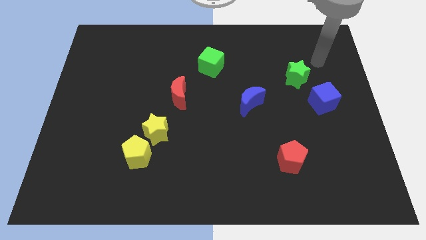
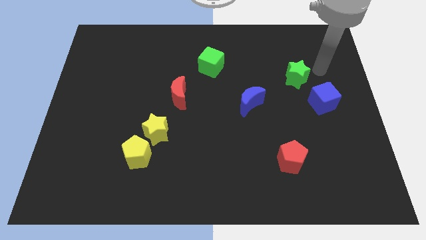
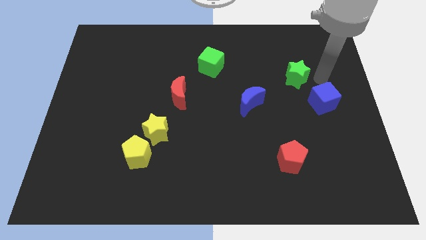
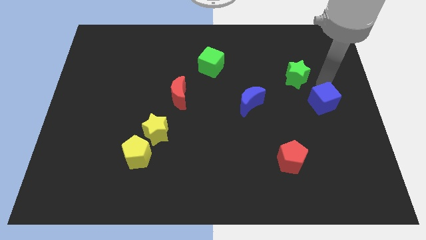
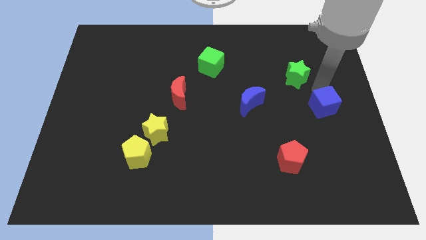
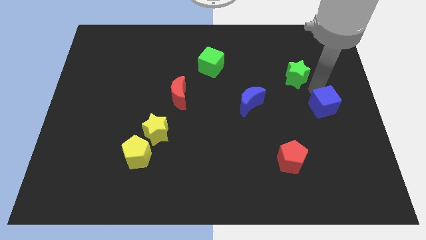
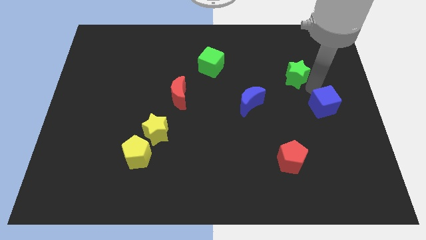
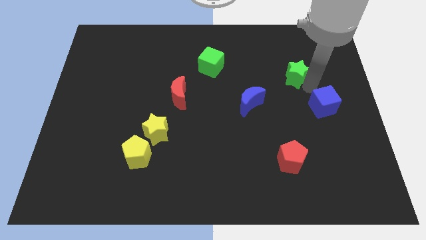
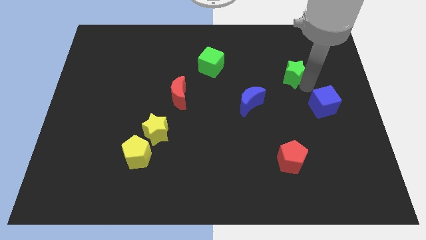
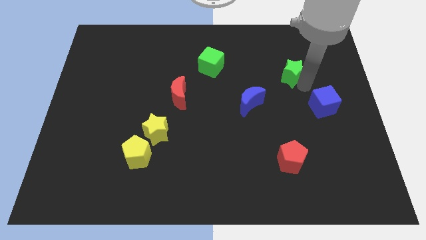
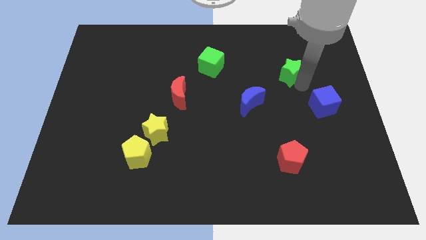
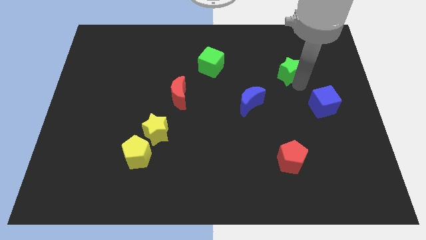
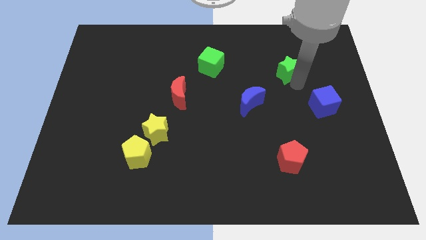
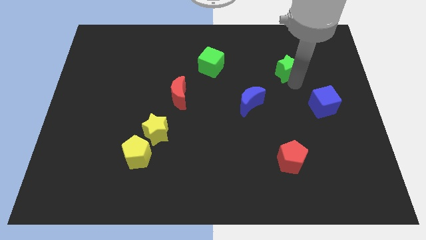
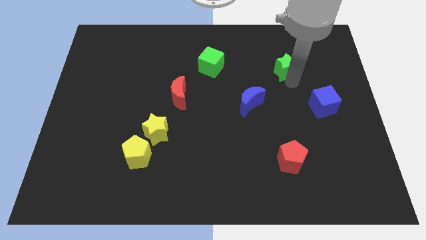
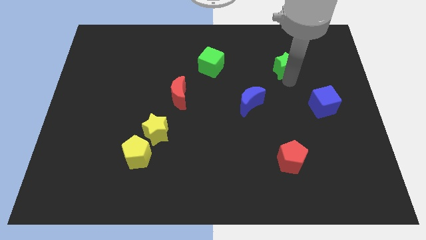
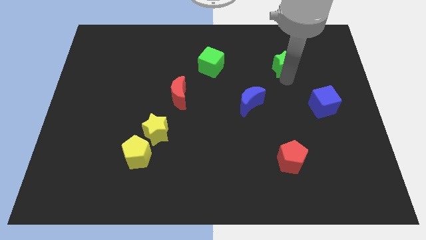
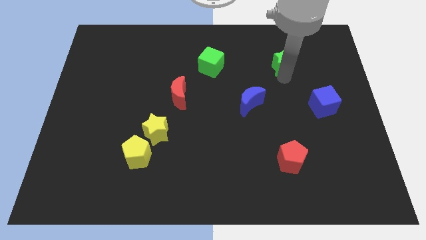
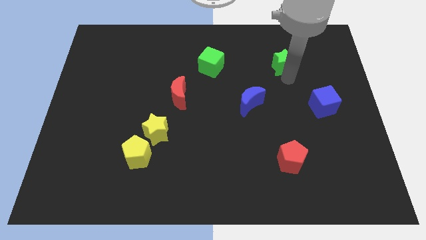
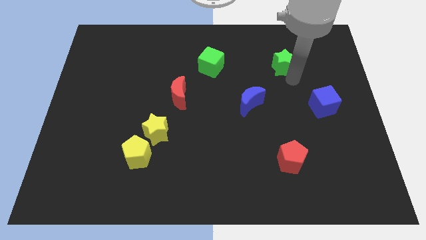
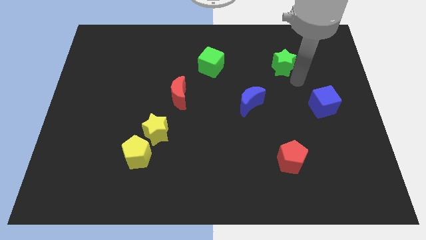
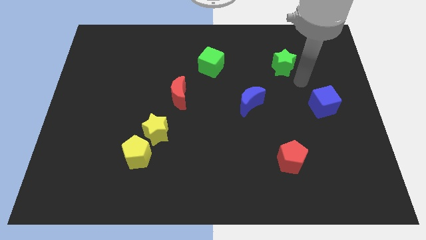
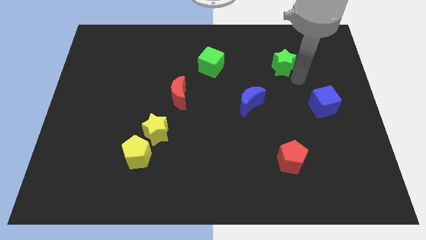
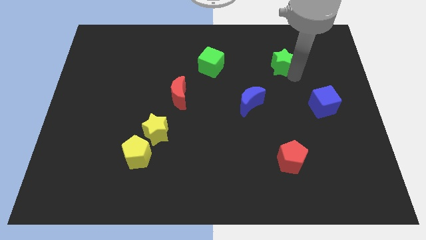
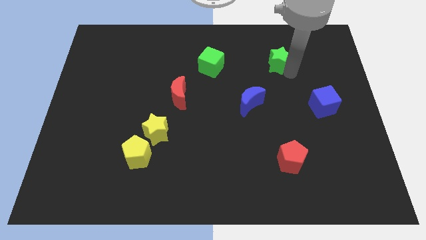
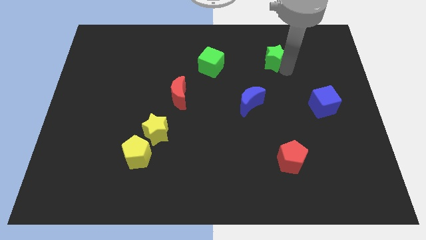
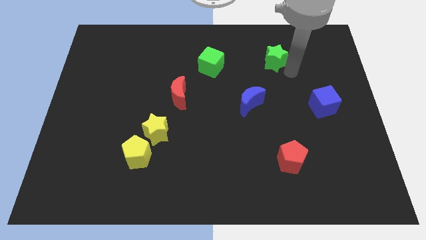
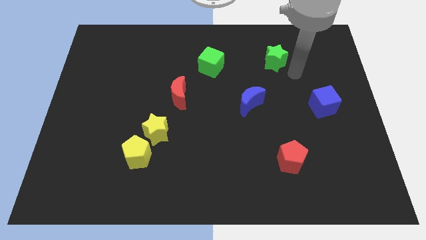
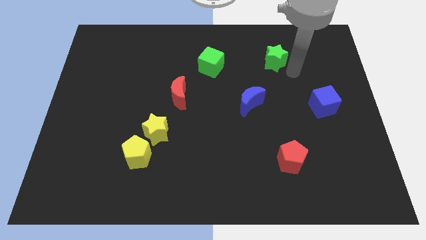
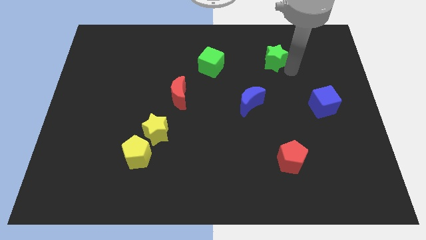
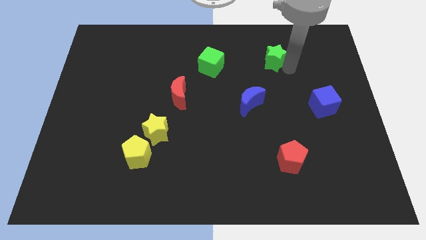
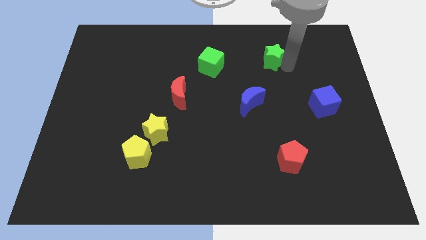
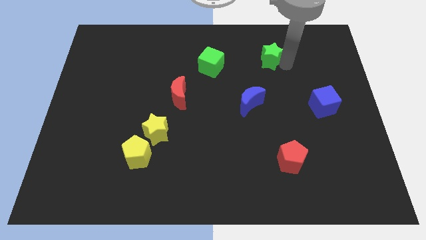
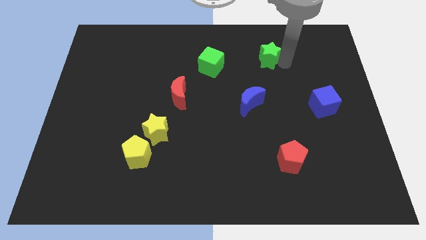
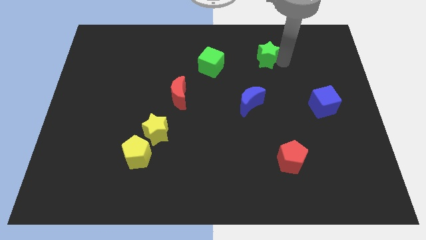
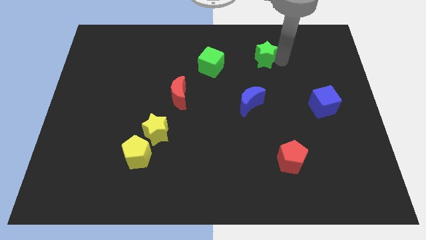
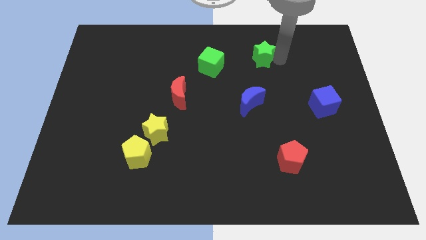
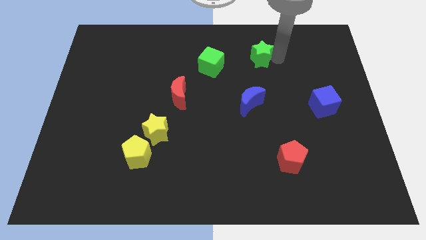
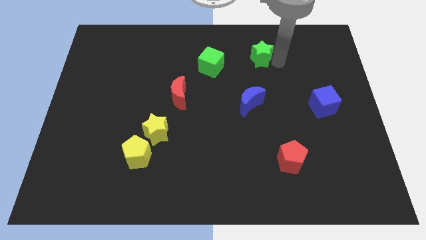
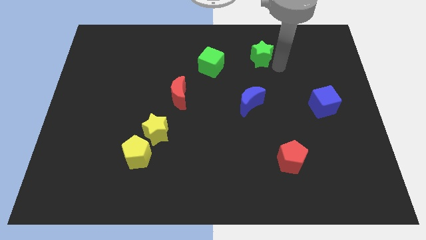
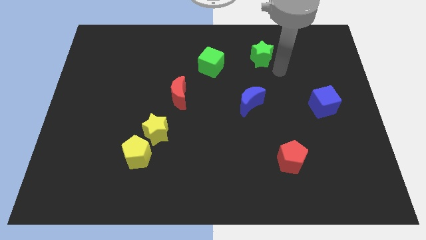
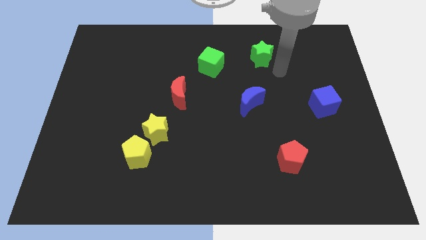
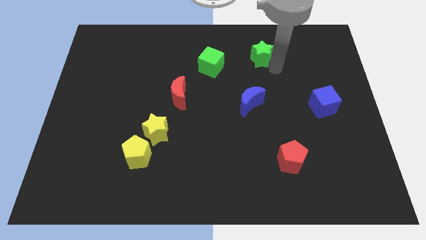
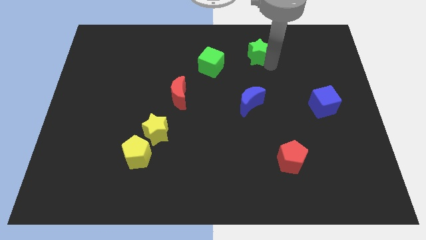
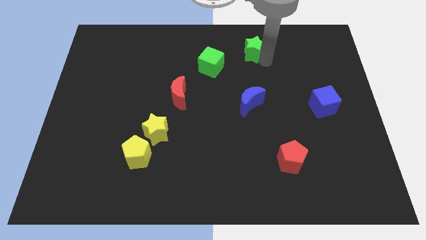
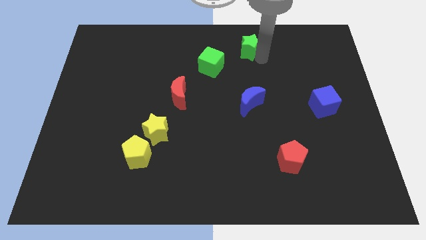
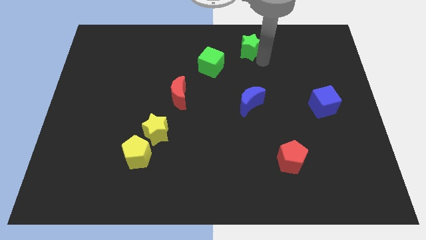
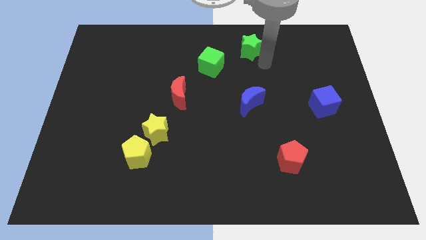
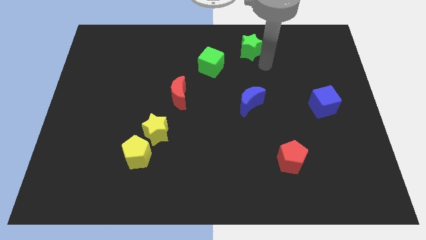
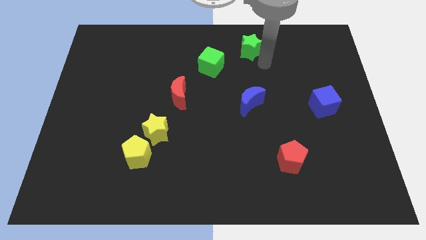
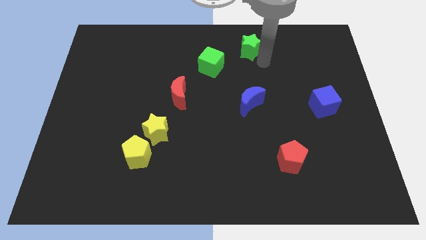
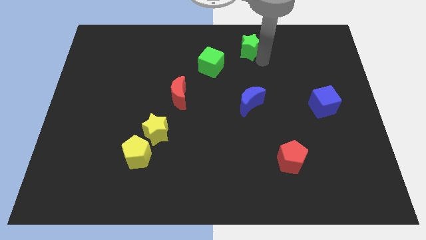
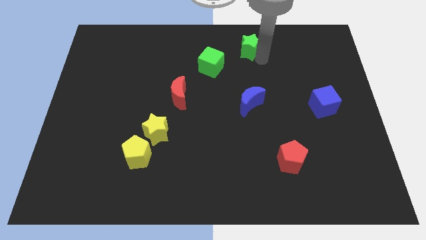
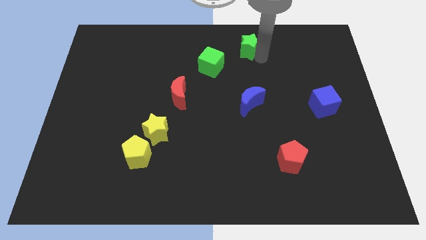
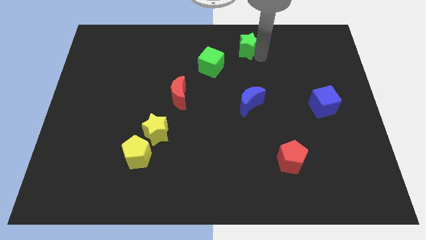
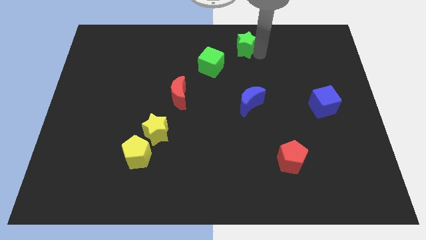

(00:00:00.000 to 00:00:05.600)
slide the green star to the top side
